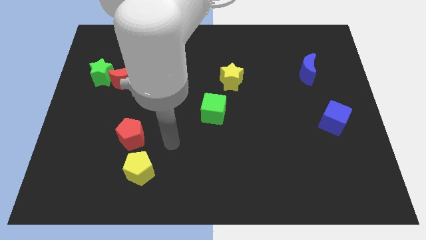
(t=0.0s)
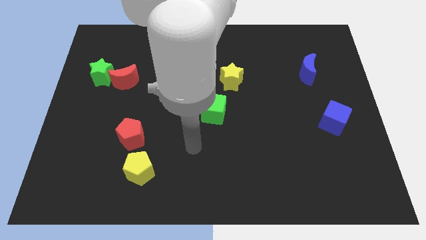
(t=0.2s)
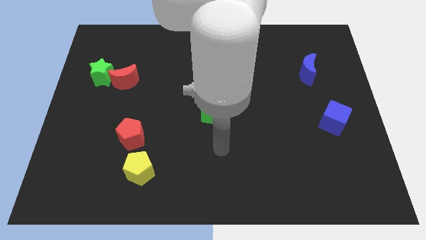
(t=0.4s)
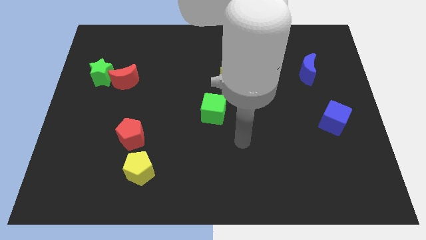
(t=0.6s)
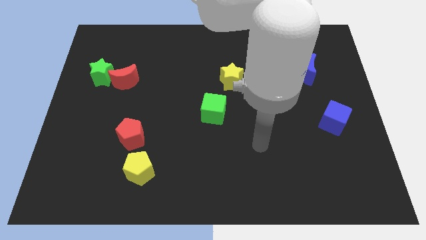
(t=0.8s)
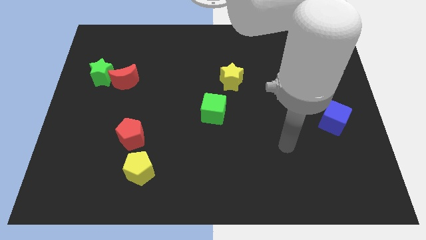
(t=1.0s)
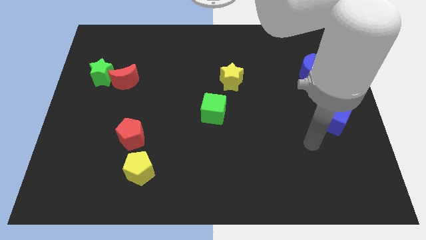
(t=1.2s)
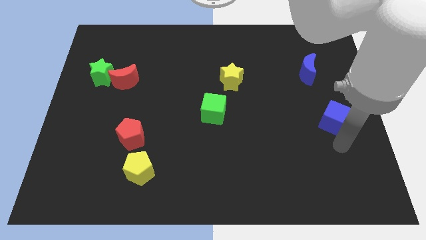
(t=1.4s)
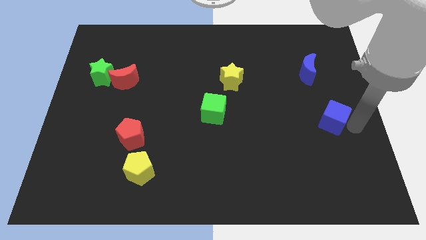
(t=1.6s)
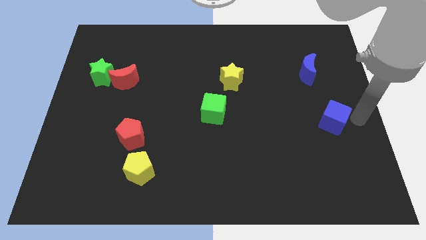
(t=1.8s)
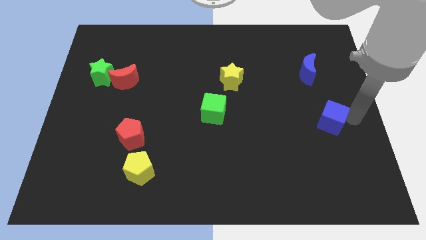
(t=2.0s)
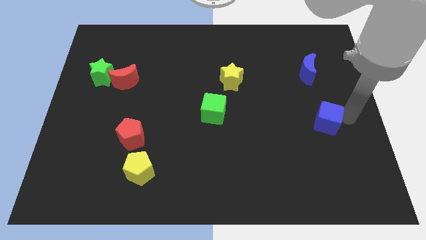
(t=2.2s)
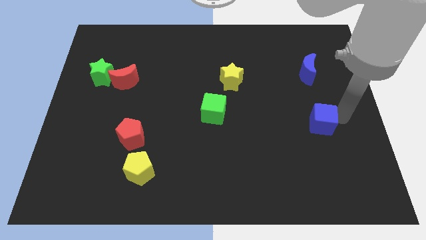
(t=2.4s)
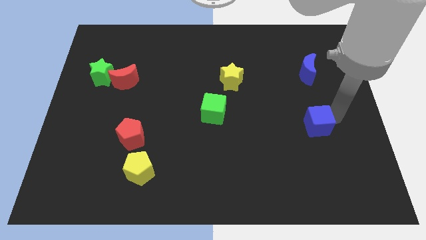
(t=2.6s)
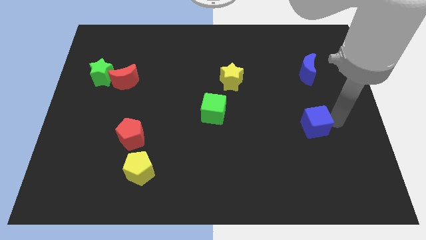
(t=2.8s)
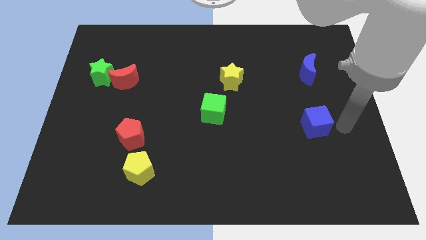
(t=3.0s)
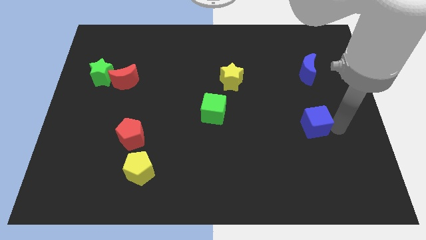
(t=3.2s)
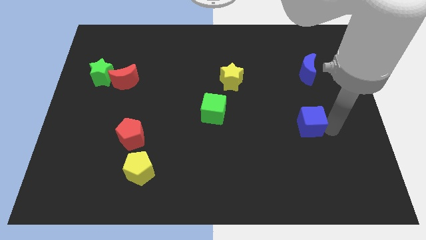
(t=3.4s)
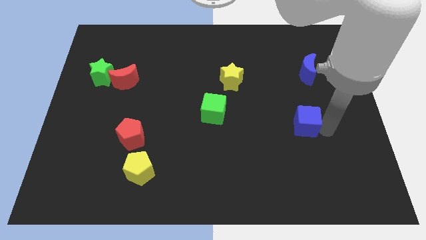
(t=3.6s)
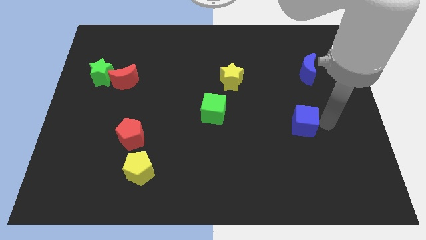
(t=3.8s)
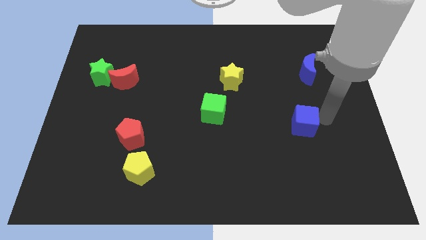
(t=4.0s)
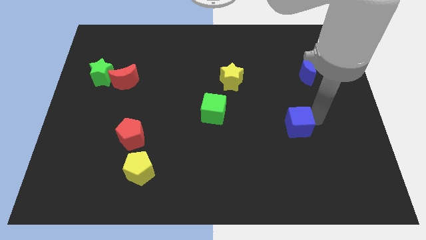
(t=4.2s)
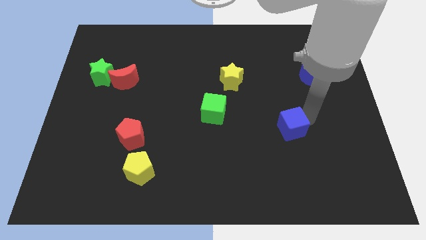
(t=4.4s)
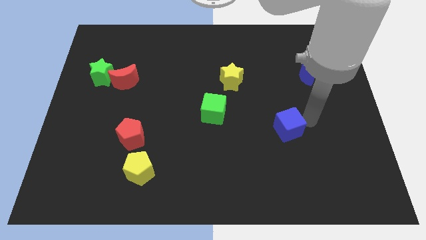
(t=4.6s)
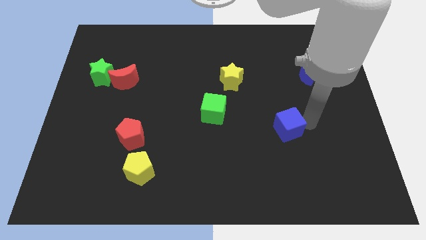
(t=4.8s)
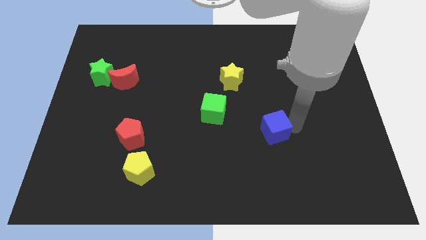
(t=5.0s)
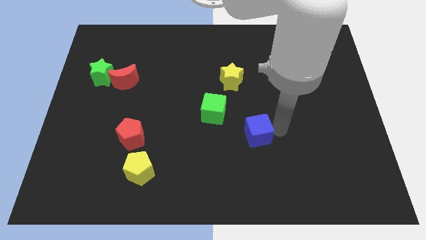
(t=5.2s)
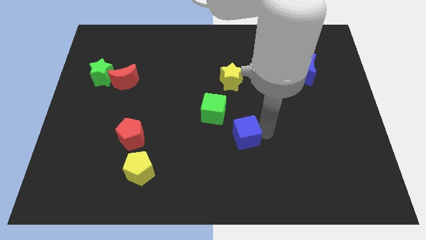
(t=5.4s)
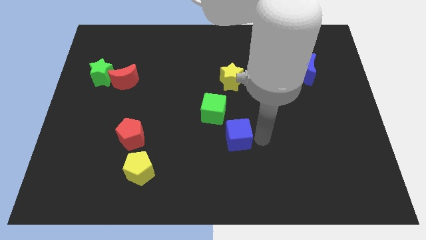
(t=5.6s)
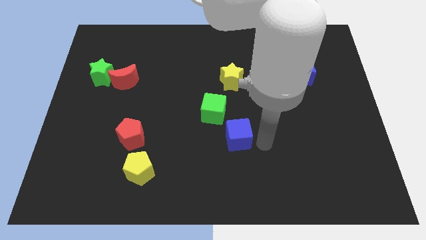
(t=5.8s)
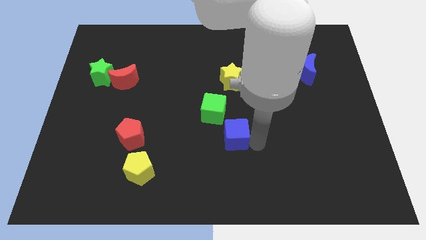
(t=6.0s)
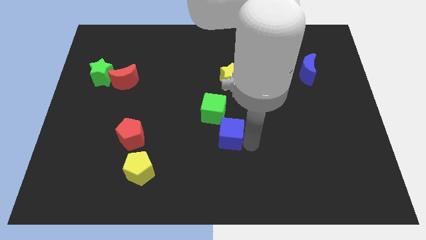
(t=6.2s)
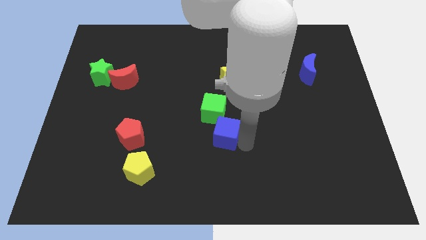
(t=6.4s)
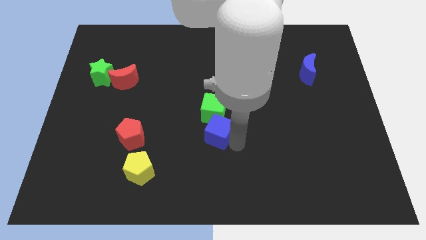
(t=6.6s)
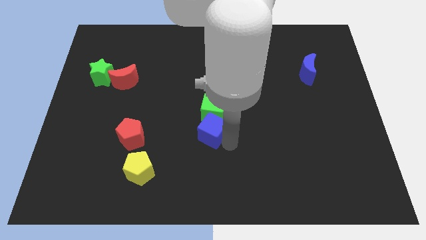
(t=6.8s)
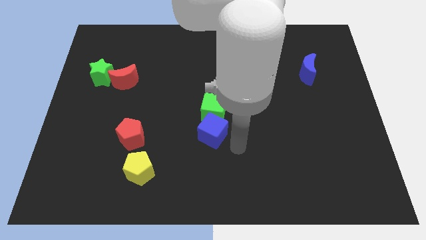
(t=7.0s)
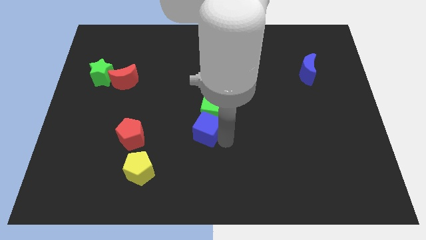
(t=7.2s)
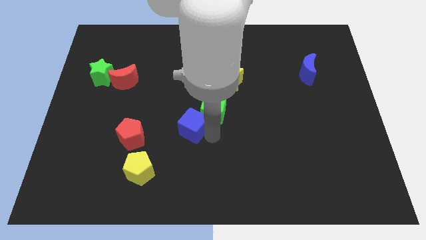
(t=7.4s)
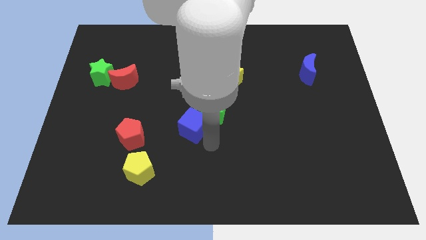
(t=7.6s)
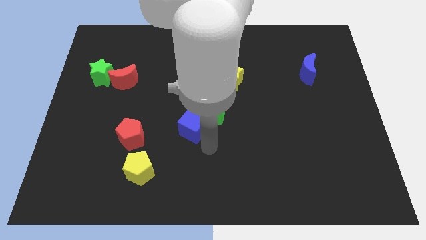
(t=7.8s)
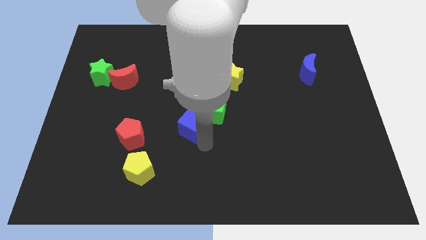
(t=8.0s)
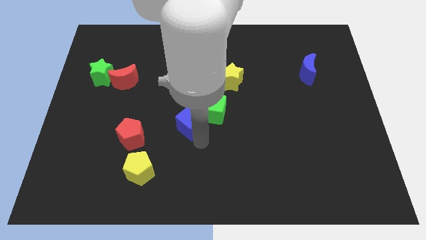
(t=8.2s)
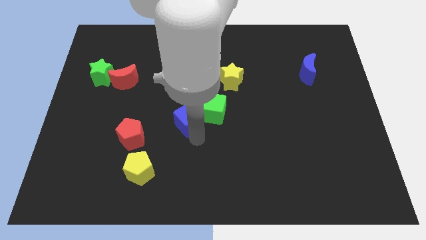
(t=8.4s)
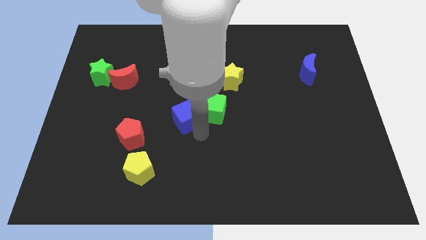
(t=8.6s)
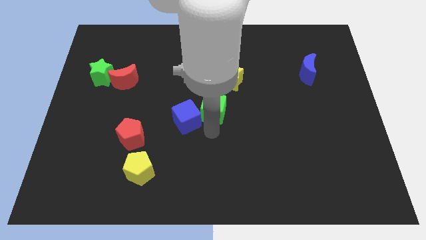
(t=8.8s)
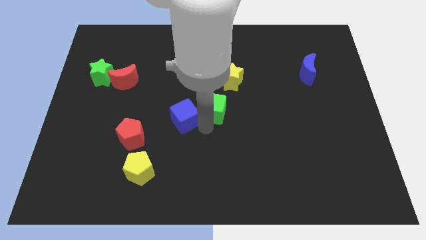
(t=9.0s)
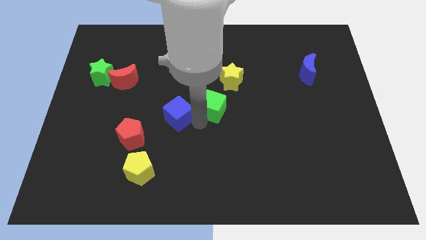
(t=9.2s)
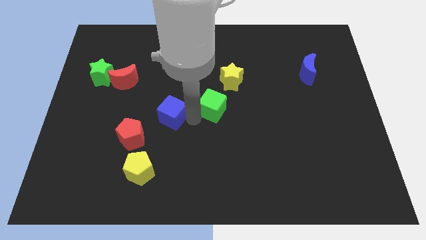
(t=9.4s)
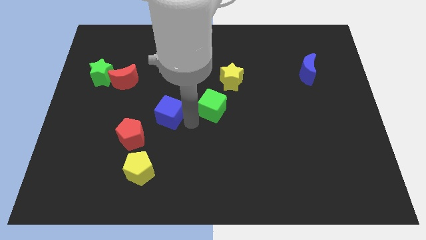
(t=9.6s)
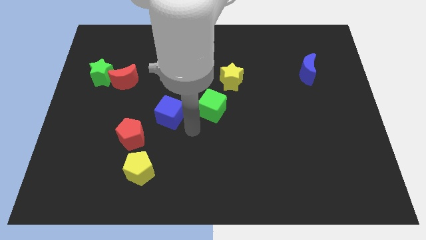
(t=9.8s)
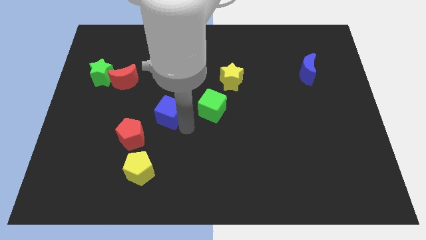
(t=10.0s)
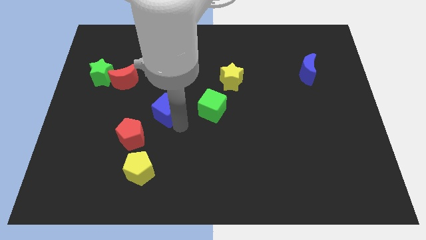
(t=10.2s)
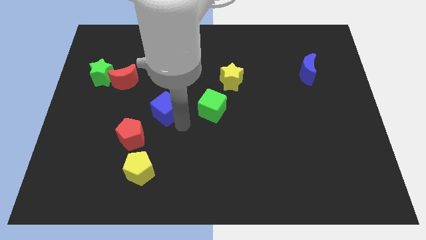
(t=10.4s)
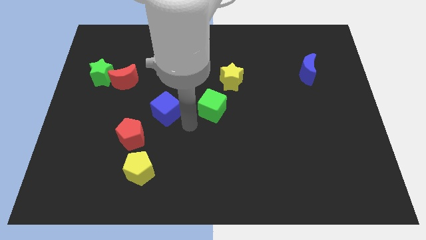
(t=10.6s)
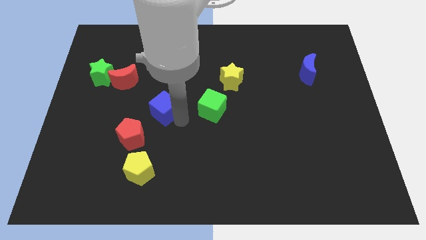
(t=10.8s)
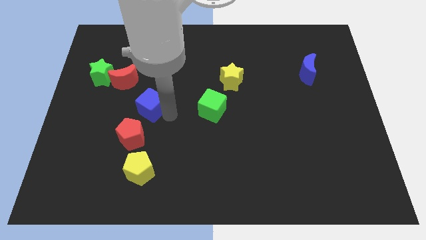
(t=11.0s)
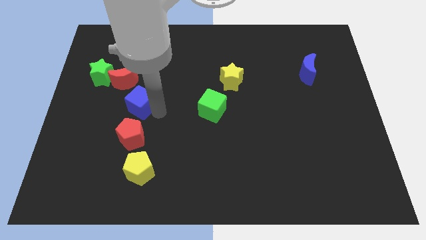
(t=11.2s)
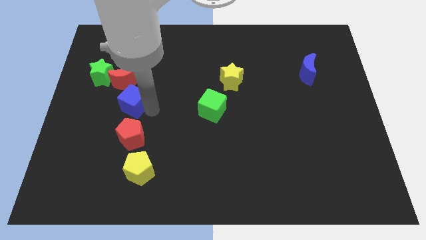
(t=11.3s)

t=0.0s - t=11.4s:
put the blue cube to the bottom right of the green star

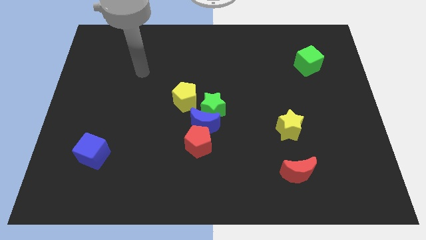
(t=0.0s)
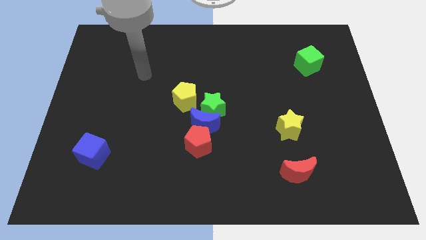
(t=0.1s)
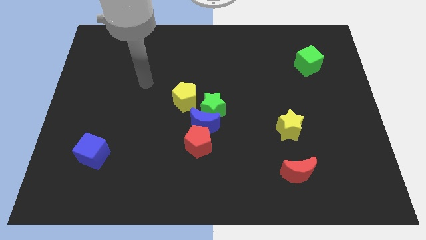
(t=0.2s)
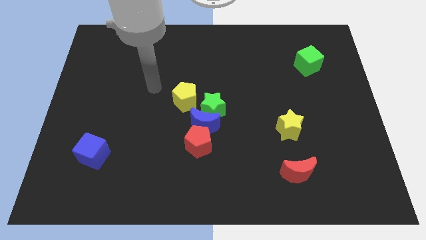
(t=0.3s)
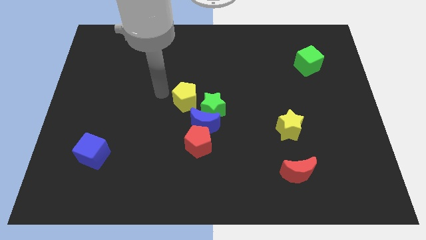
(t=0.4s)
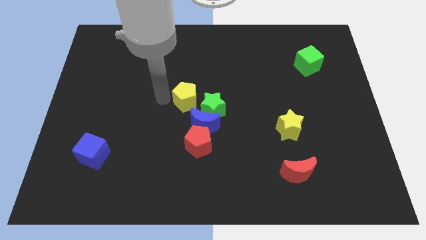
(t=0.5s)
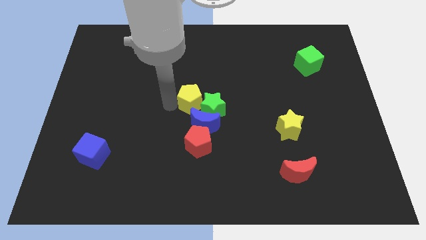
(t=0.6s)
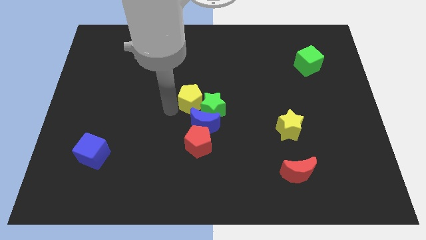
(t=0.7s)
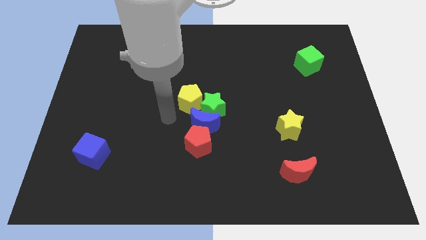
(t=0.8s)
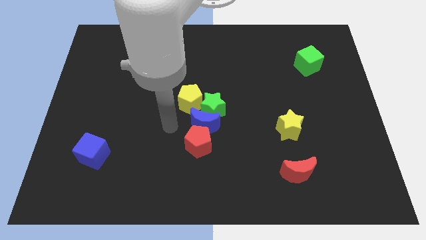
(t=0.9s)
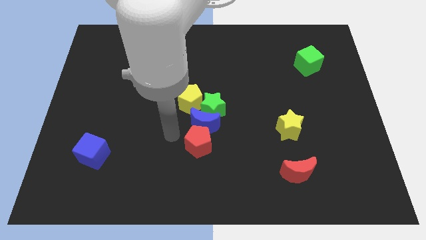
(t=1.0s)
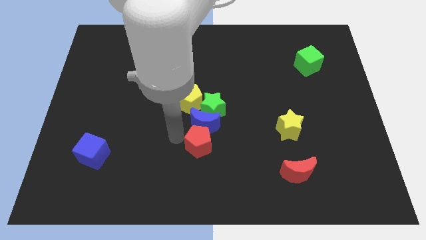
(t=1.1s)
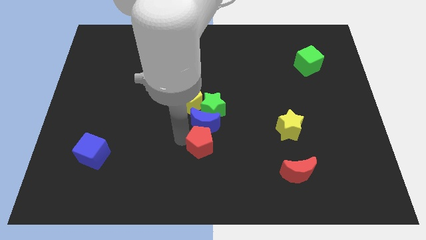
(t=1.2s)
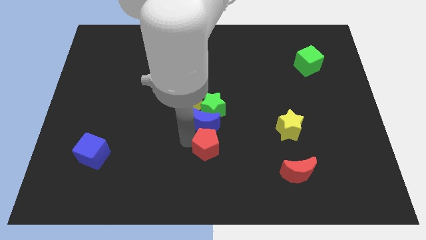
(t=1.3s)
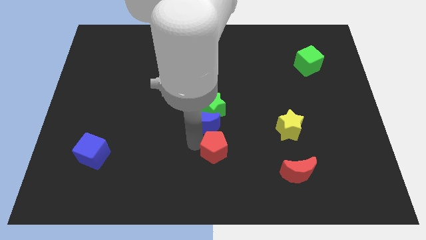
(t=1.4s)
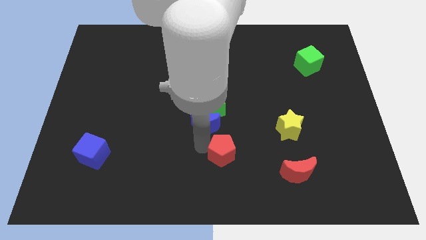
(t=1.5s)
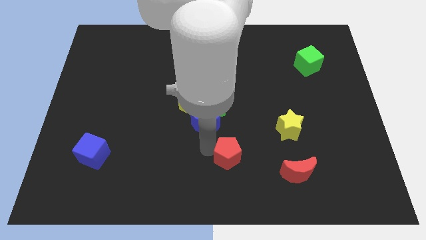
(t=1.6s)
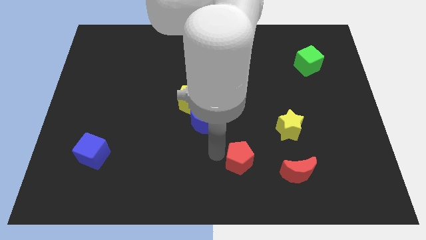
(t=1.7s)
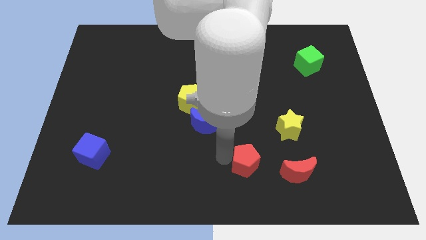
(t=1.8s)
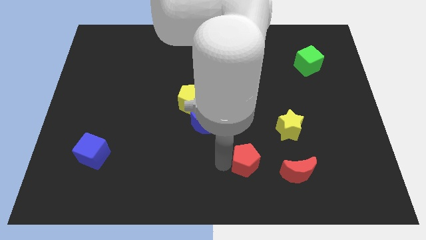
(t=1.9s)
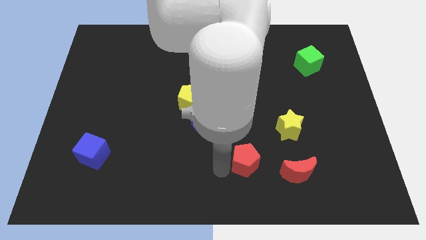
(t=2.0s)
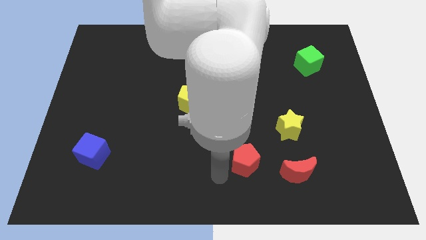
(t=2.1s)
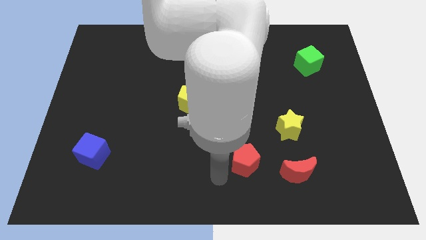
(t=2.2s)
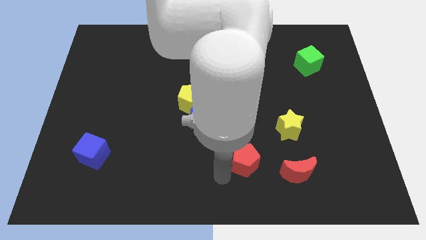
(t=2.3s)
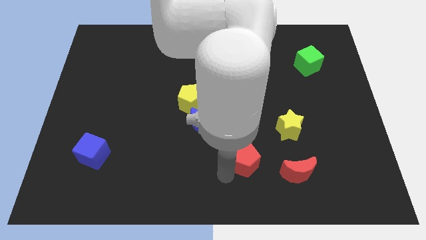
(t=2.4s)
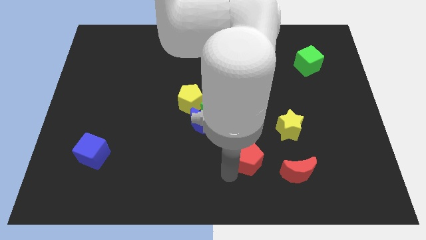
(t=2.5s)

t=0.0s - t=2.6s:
move the red pentagon to the bottom left side of the yellow star
